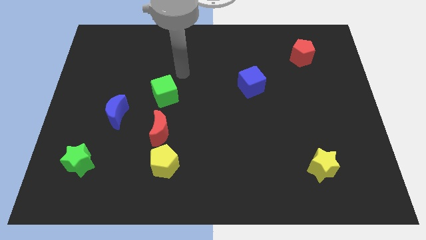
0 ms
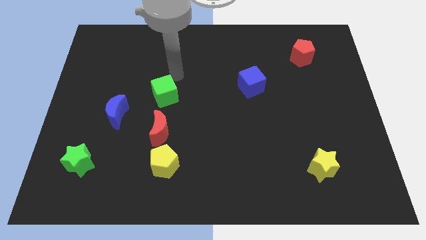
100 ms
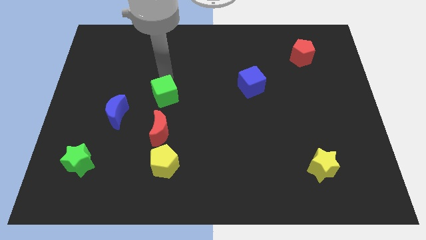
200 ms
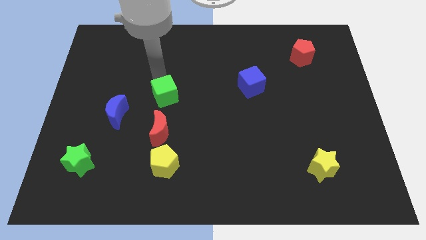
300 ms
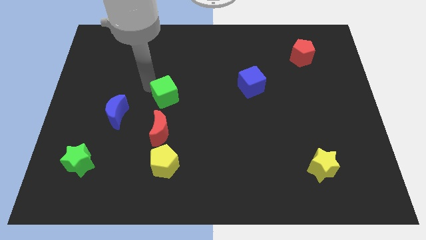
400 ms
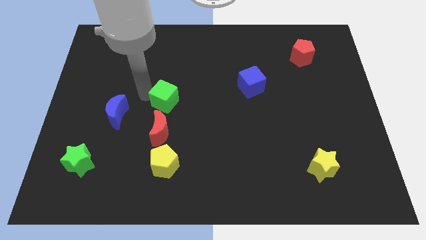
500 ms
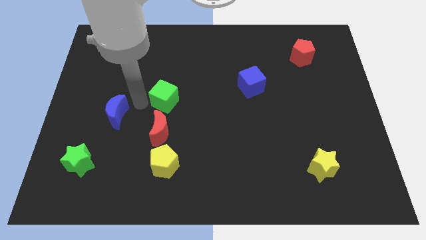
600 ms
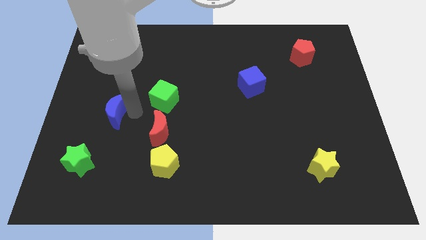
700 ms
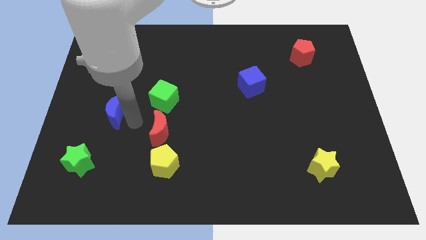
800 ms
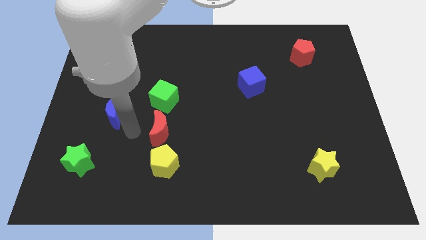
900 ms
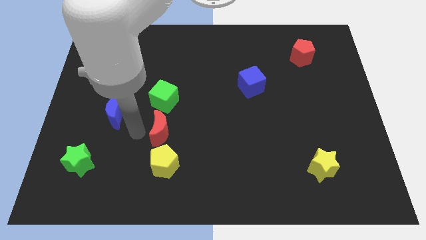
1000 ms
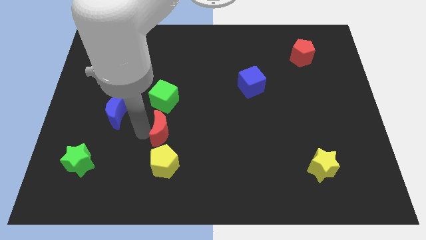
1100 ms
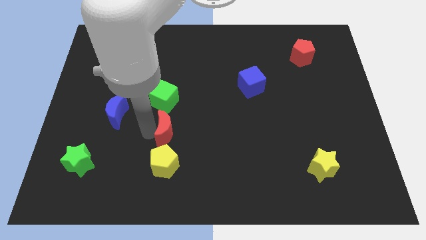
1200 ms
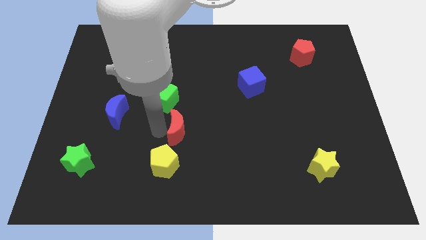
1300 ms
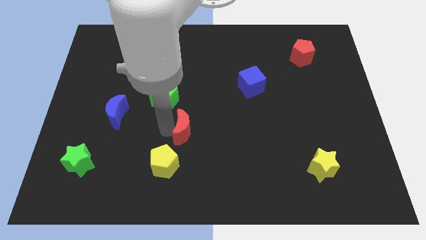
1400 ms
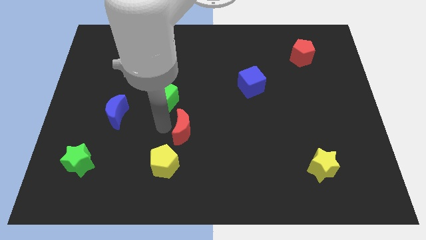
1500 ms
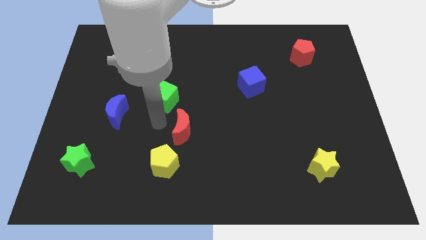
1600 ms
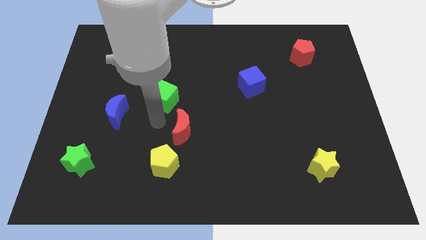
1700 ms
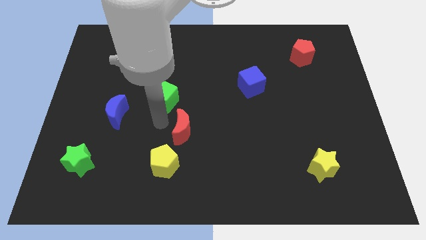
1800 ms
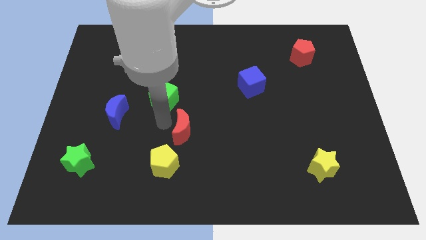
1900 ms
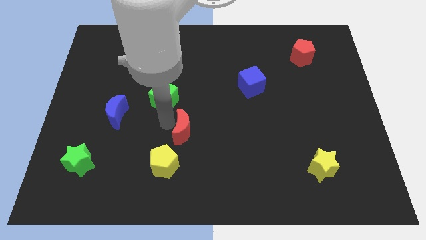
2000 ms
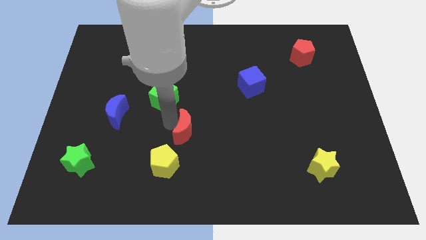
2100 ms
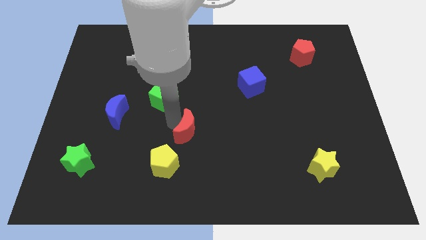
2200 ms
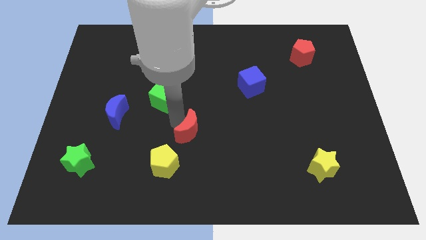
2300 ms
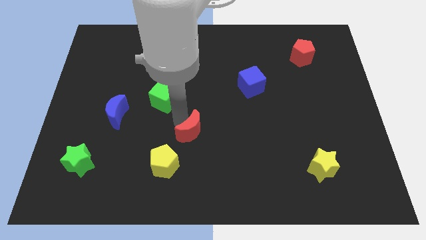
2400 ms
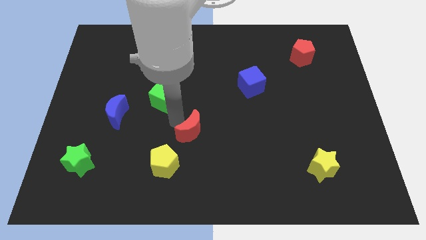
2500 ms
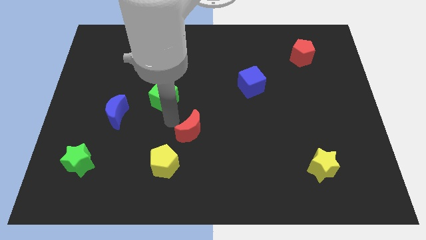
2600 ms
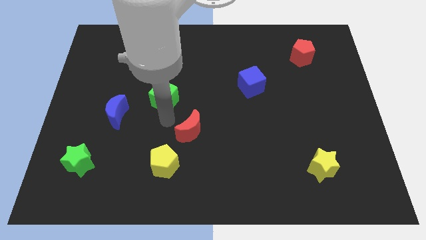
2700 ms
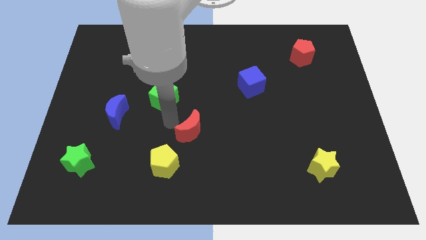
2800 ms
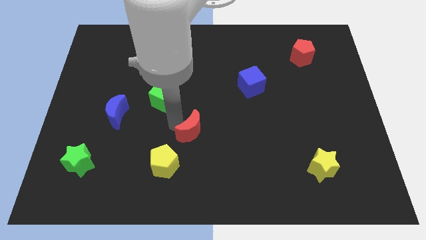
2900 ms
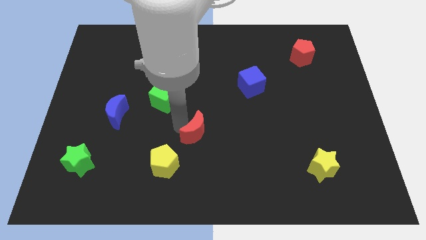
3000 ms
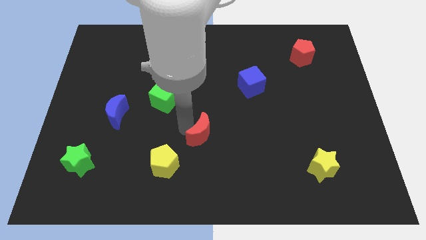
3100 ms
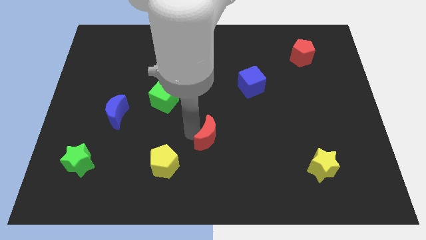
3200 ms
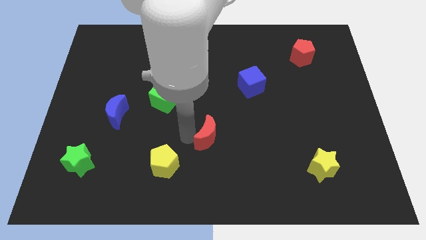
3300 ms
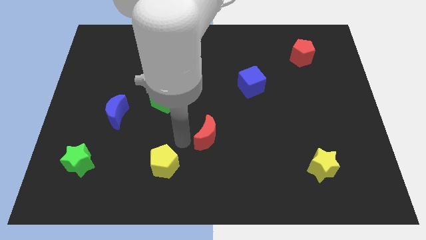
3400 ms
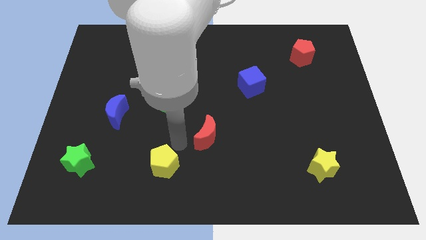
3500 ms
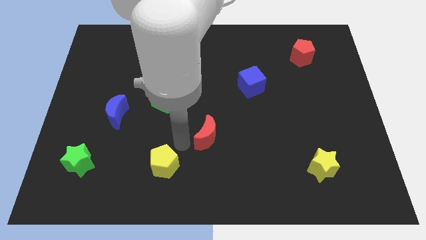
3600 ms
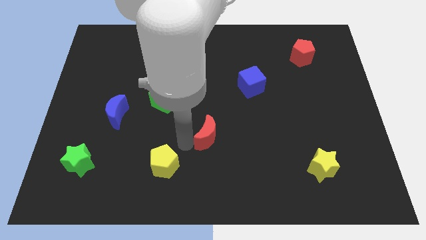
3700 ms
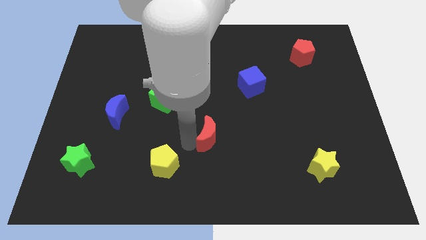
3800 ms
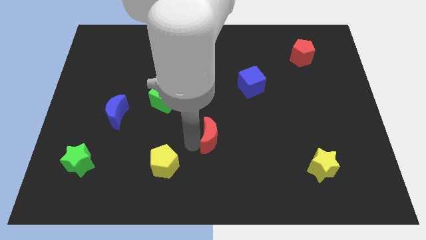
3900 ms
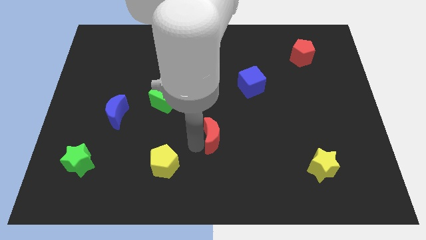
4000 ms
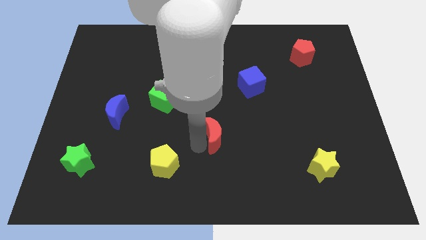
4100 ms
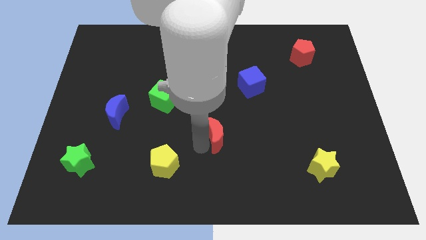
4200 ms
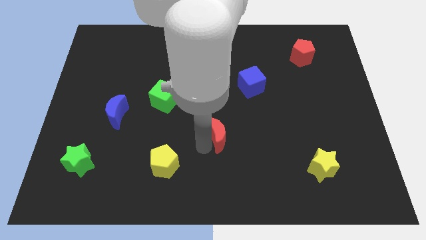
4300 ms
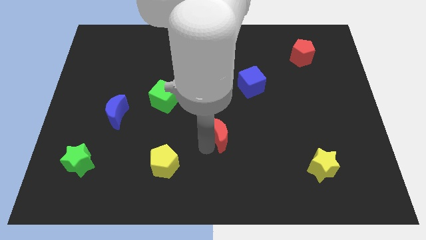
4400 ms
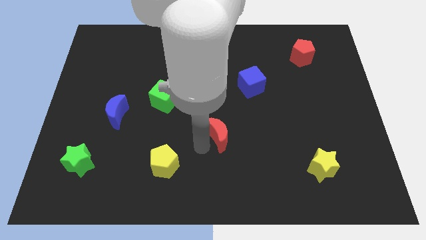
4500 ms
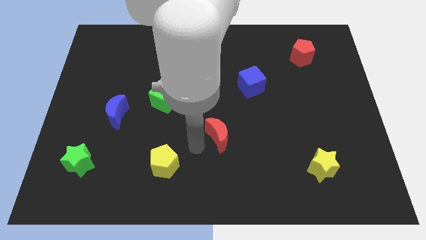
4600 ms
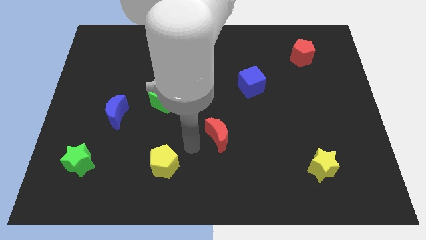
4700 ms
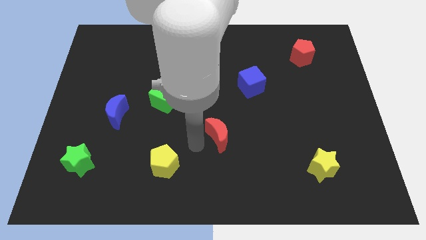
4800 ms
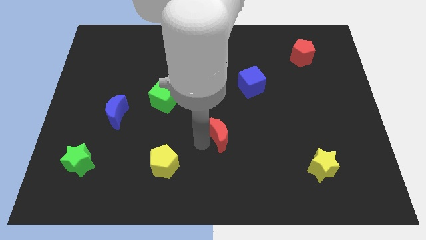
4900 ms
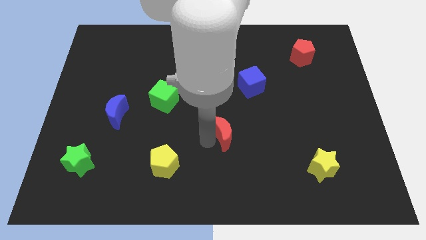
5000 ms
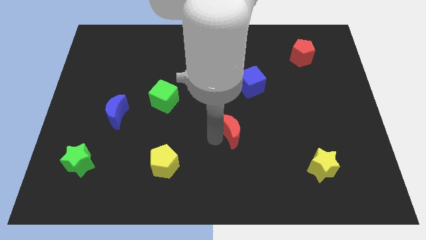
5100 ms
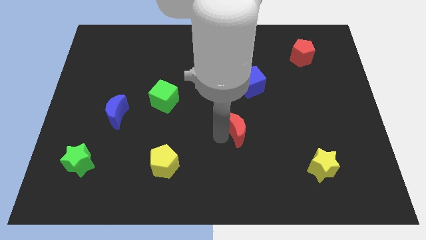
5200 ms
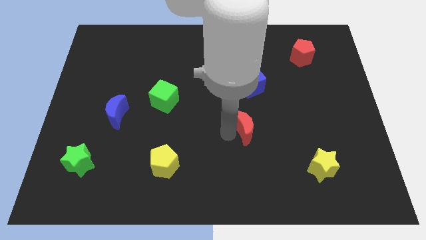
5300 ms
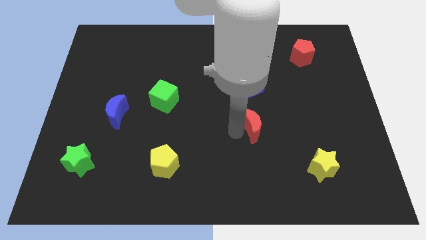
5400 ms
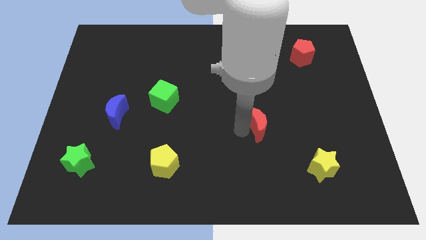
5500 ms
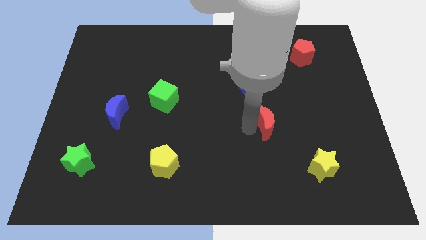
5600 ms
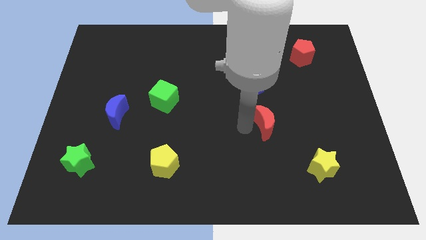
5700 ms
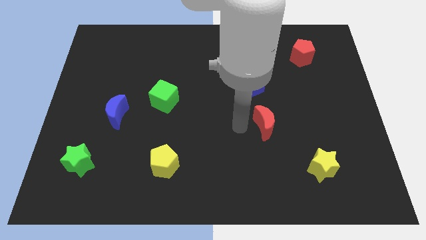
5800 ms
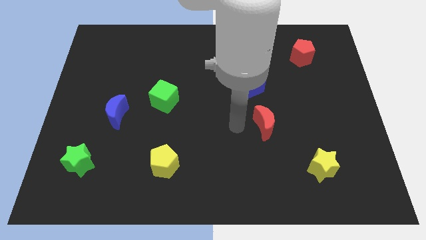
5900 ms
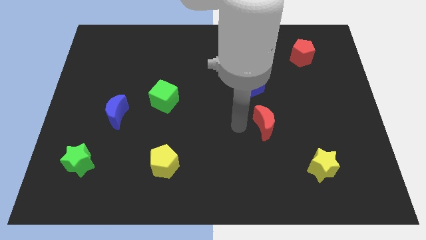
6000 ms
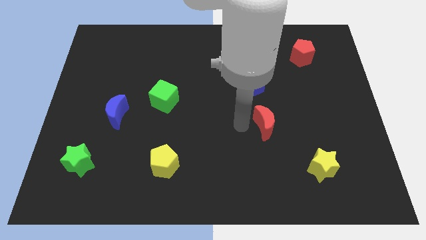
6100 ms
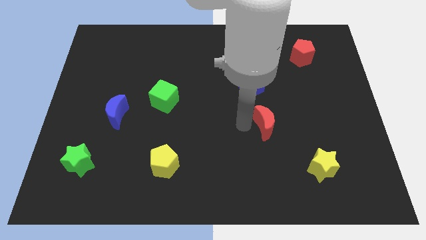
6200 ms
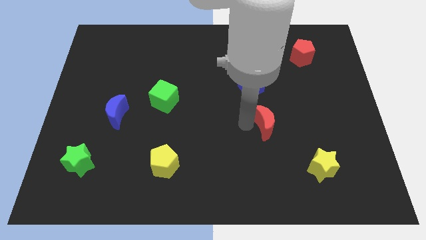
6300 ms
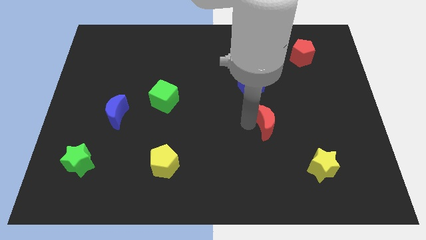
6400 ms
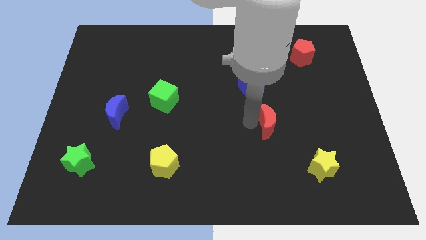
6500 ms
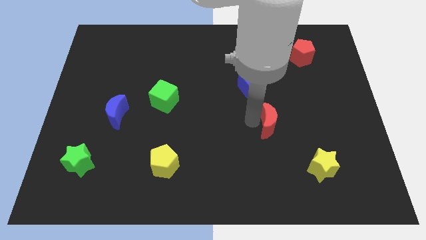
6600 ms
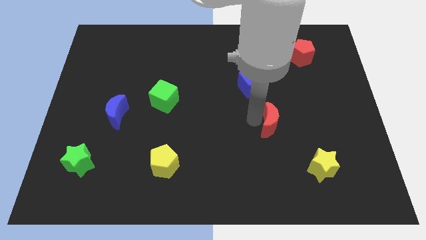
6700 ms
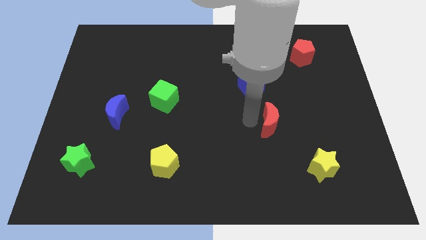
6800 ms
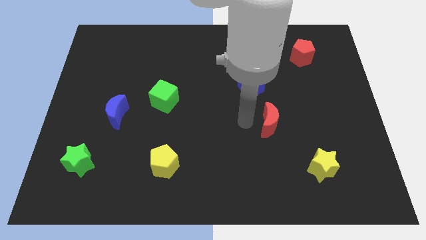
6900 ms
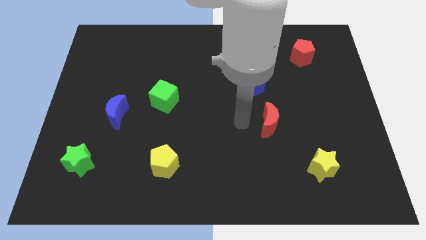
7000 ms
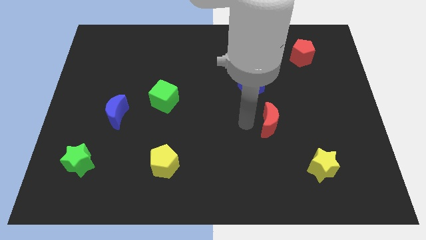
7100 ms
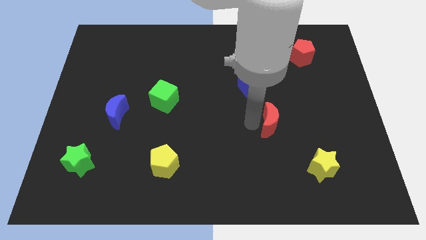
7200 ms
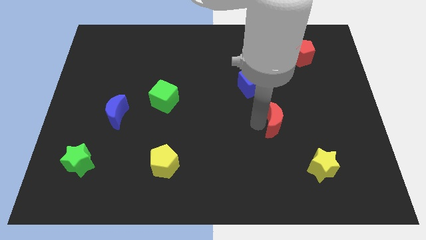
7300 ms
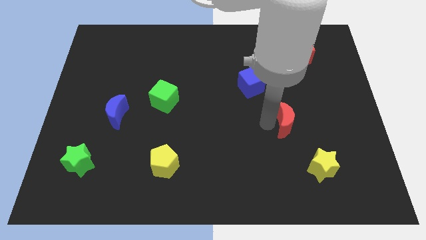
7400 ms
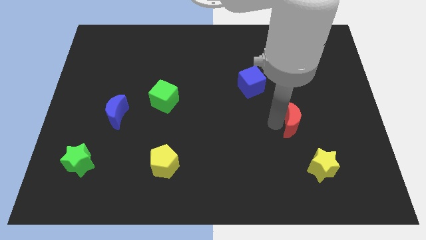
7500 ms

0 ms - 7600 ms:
move the red moon above the yellow star

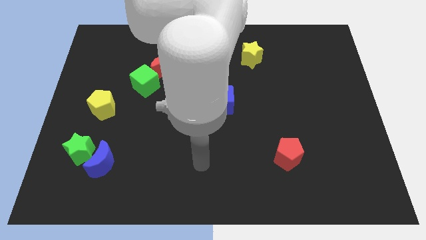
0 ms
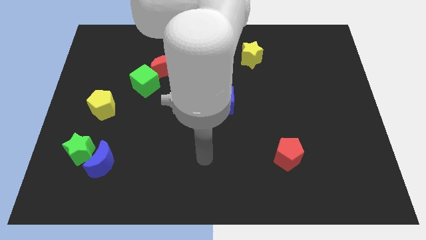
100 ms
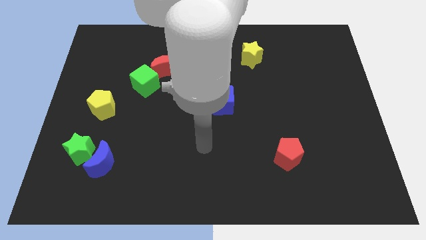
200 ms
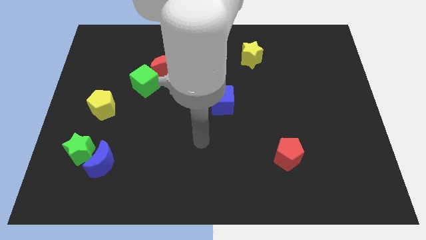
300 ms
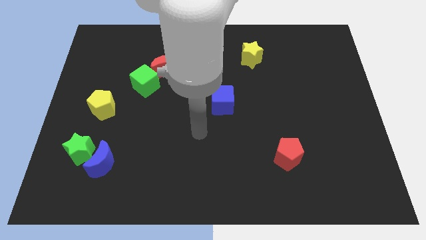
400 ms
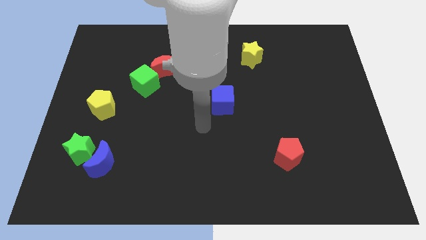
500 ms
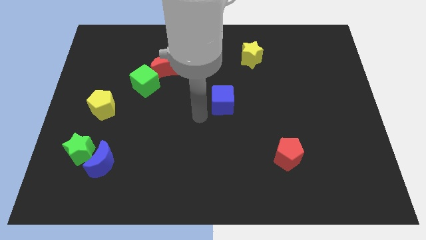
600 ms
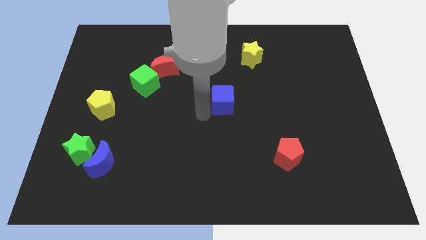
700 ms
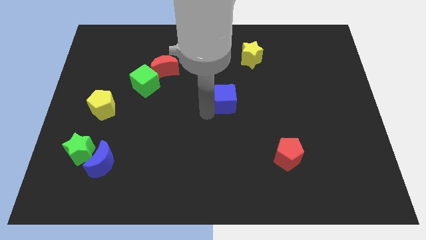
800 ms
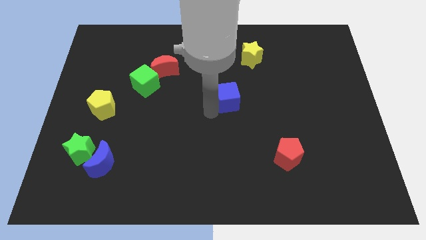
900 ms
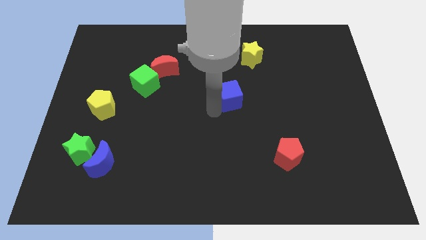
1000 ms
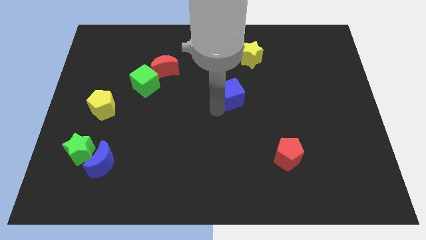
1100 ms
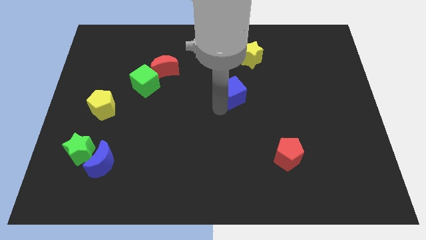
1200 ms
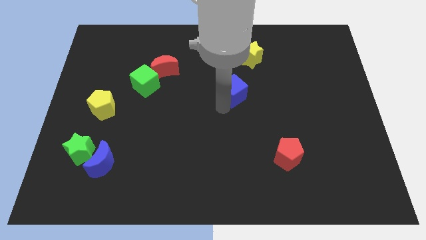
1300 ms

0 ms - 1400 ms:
slide the blue cube below the yellow star
